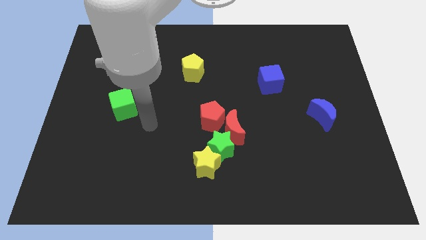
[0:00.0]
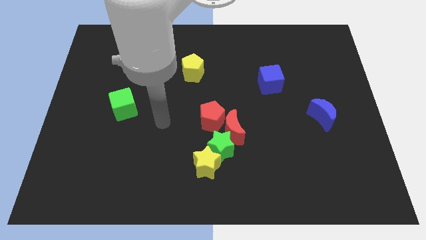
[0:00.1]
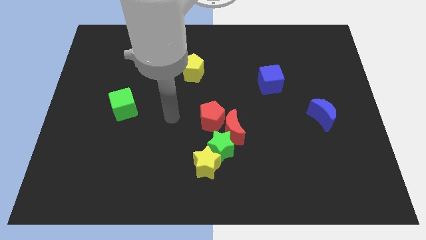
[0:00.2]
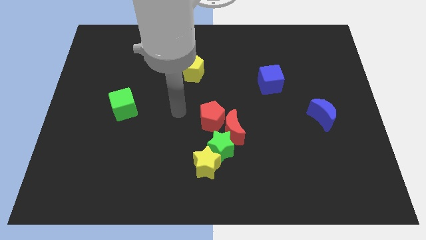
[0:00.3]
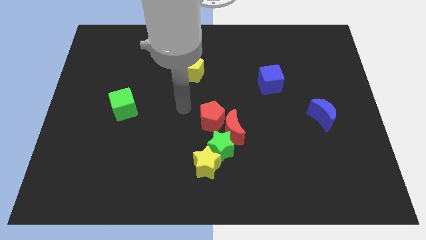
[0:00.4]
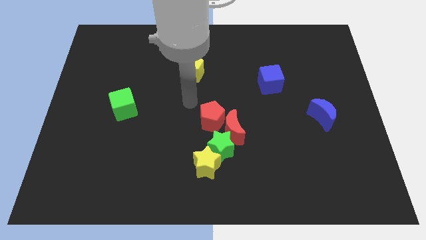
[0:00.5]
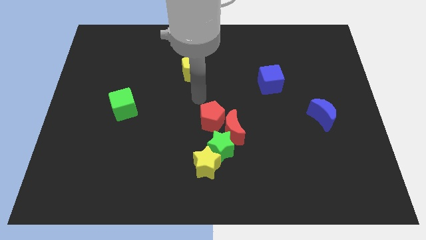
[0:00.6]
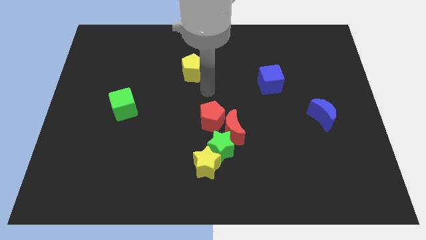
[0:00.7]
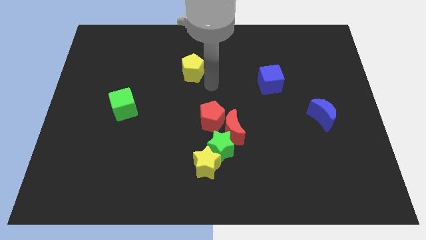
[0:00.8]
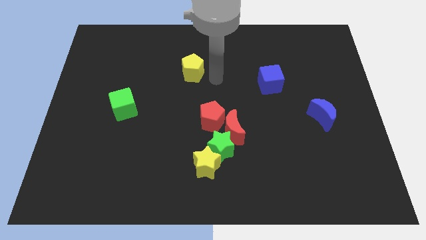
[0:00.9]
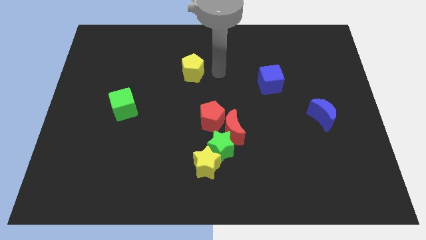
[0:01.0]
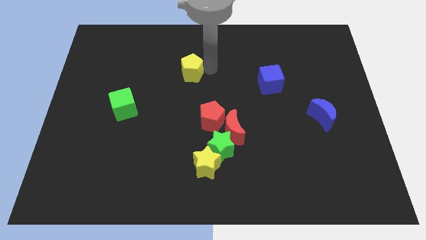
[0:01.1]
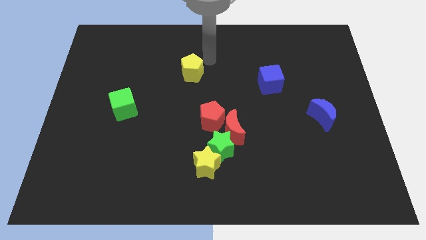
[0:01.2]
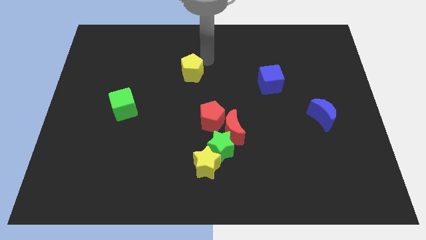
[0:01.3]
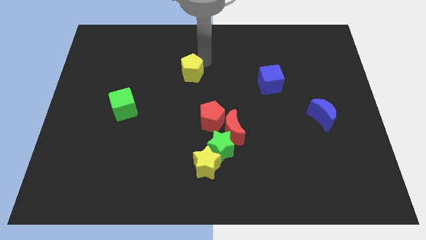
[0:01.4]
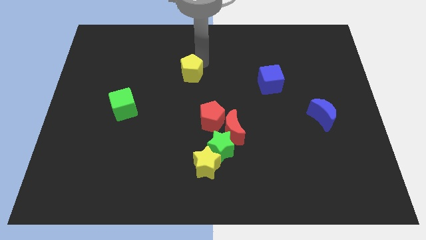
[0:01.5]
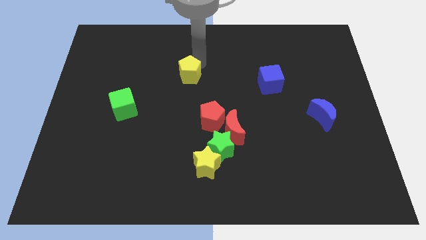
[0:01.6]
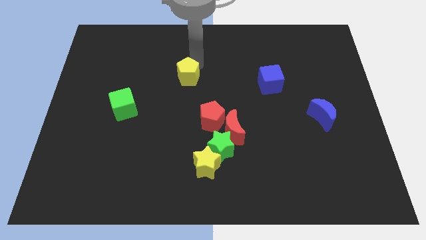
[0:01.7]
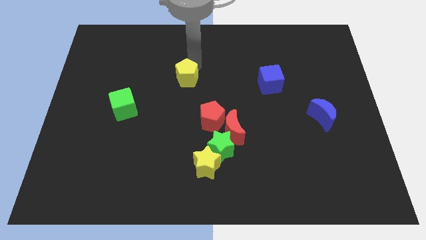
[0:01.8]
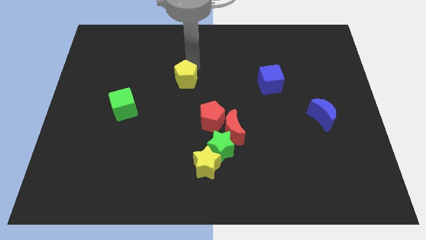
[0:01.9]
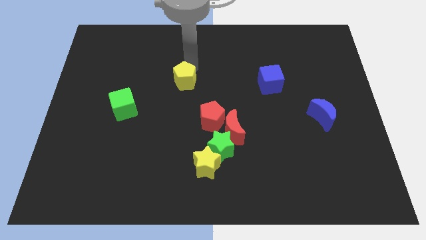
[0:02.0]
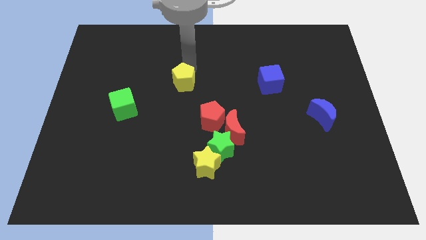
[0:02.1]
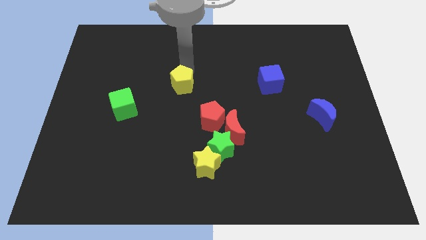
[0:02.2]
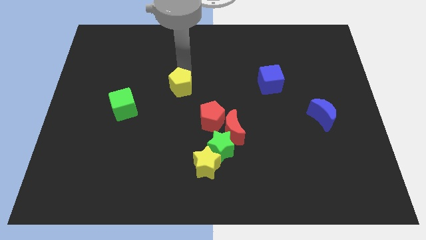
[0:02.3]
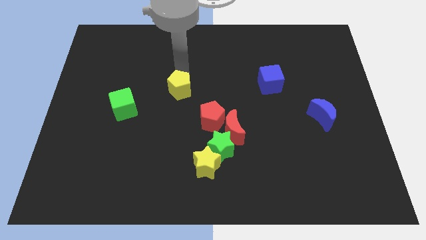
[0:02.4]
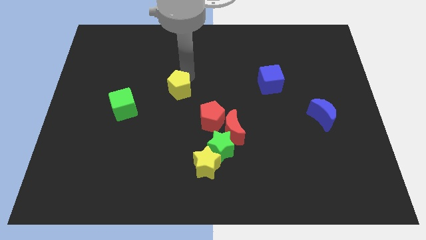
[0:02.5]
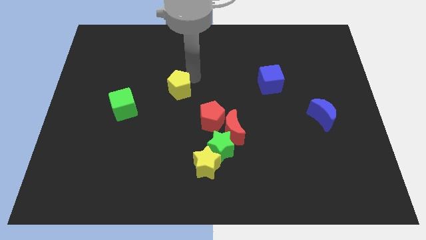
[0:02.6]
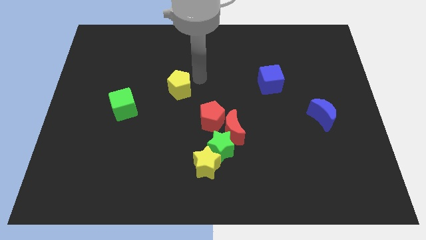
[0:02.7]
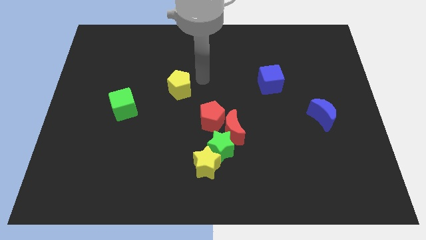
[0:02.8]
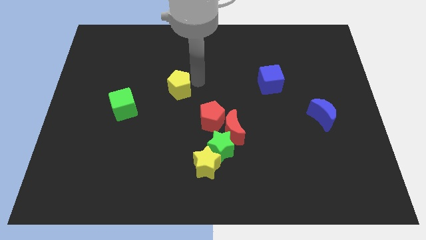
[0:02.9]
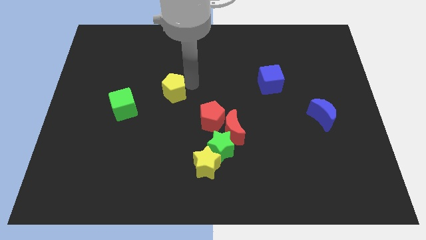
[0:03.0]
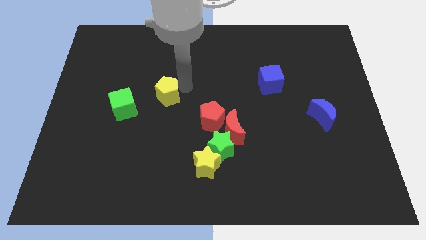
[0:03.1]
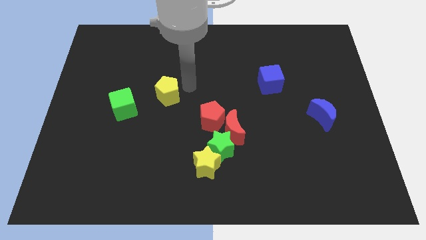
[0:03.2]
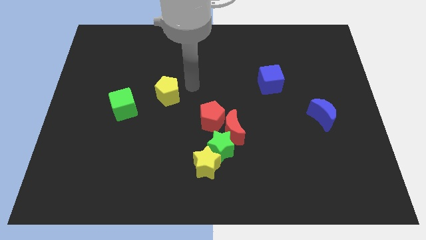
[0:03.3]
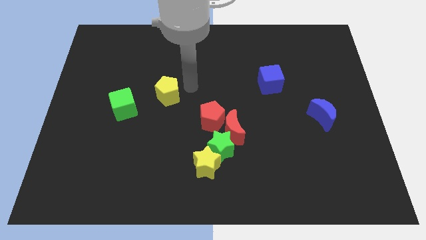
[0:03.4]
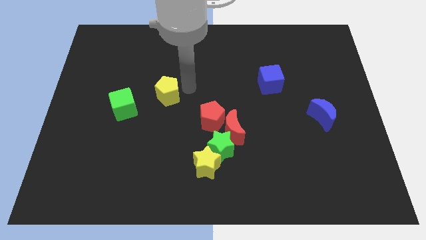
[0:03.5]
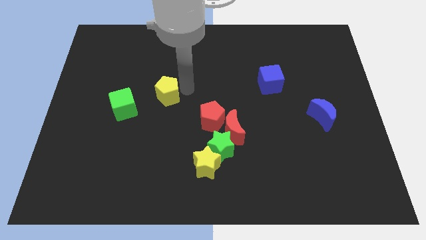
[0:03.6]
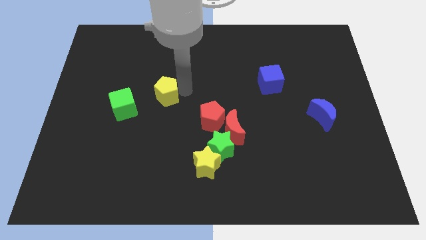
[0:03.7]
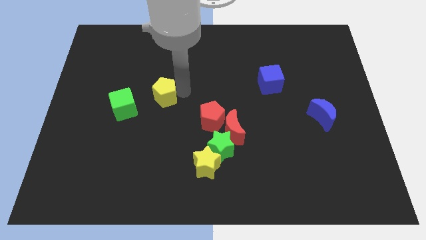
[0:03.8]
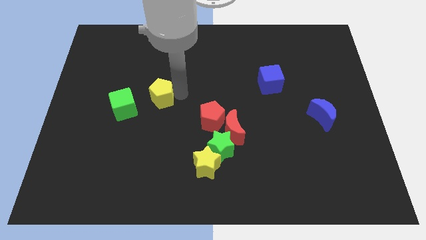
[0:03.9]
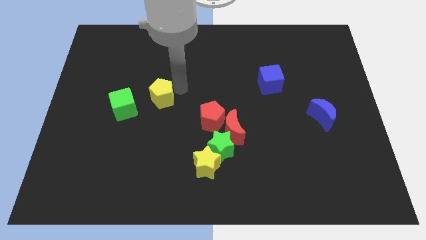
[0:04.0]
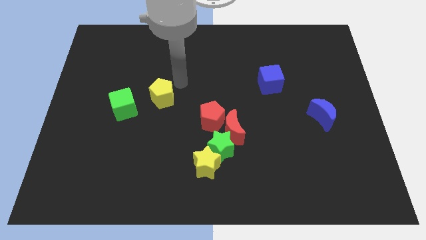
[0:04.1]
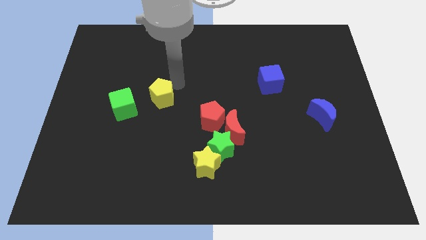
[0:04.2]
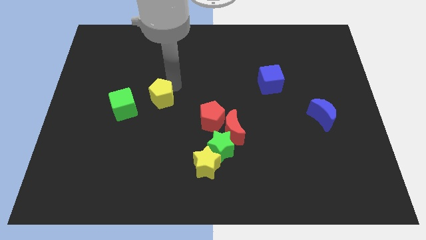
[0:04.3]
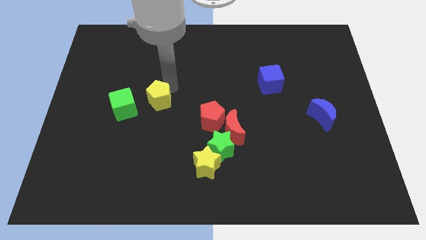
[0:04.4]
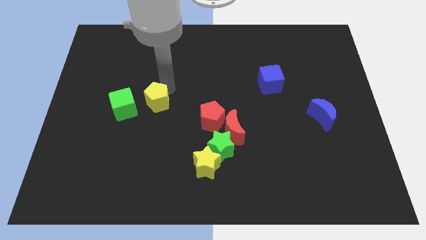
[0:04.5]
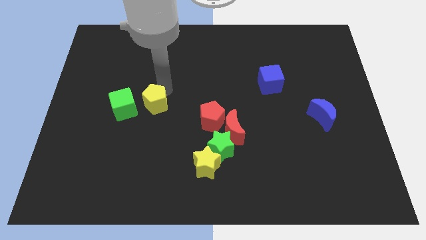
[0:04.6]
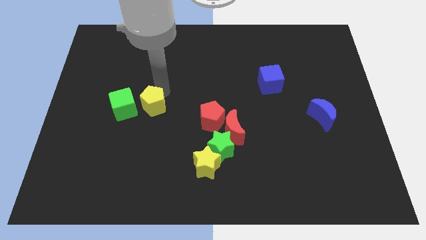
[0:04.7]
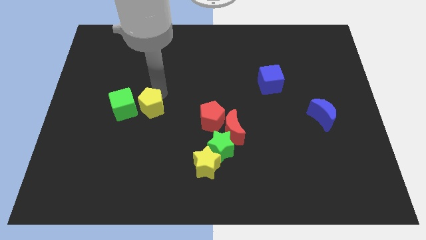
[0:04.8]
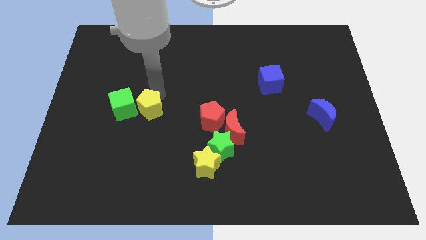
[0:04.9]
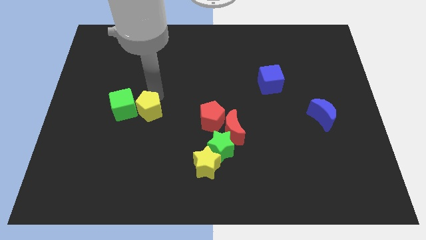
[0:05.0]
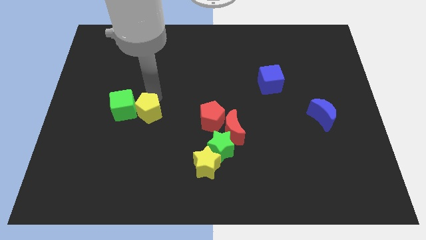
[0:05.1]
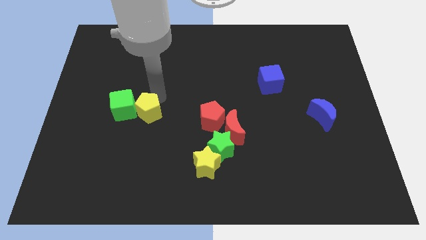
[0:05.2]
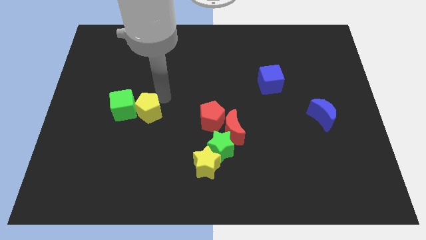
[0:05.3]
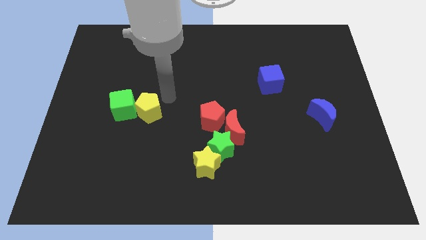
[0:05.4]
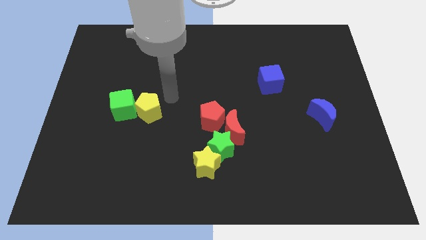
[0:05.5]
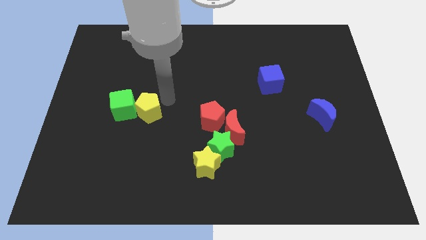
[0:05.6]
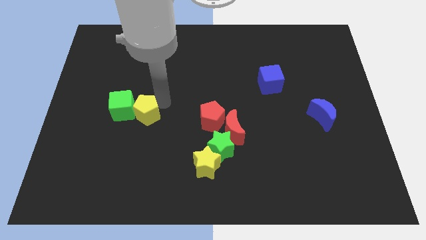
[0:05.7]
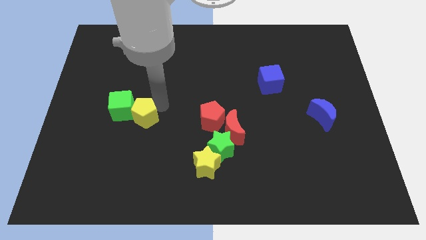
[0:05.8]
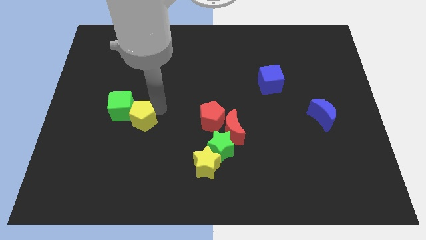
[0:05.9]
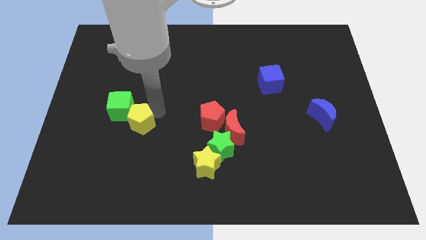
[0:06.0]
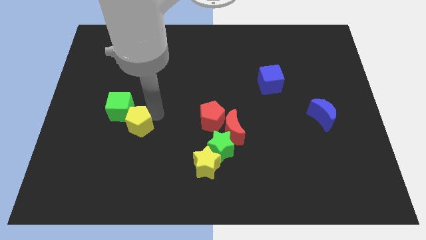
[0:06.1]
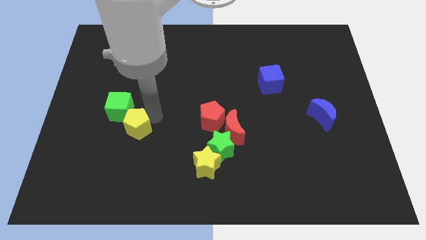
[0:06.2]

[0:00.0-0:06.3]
move the yellow pentagon down and then to the left

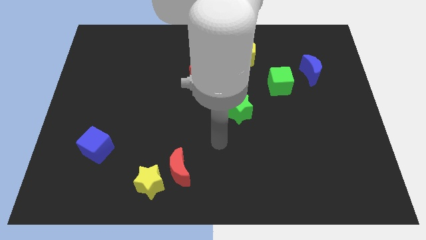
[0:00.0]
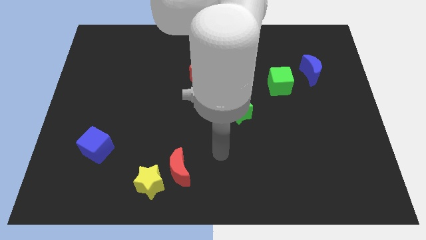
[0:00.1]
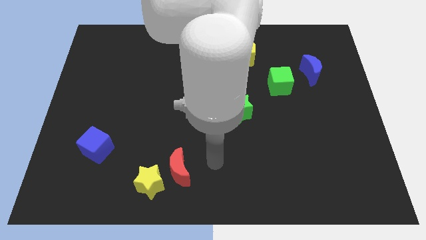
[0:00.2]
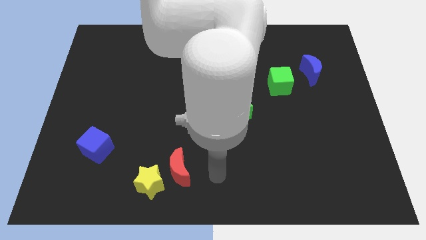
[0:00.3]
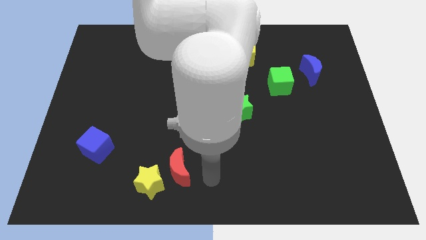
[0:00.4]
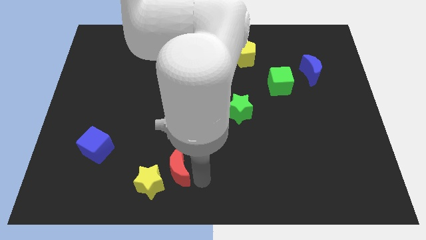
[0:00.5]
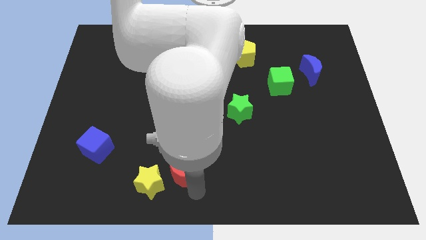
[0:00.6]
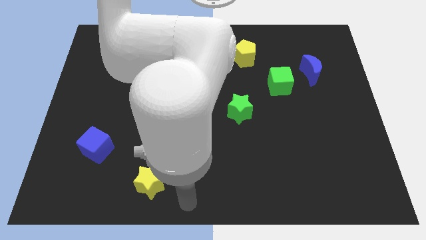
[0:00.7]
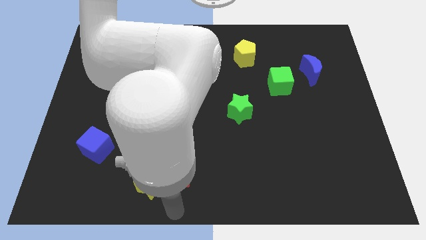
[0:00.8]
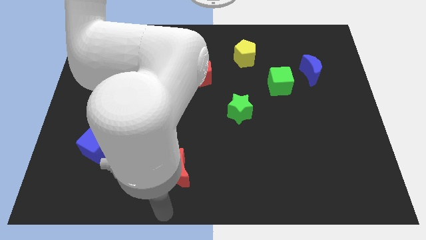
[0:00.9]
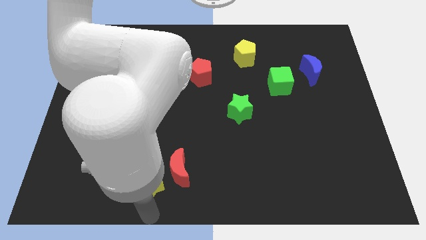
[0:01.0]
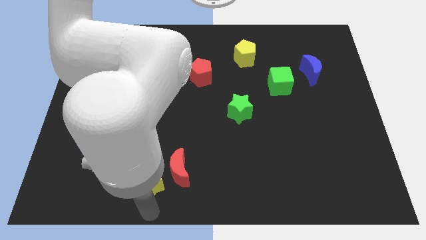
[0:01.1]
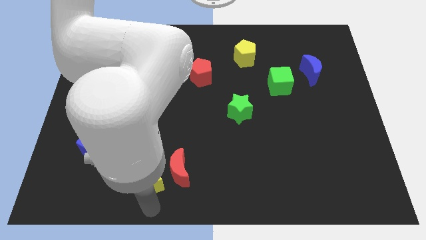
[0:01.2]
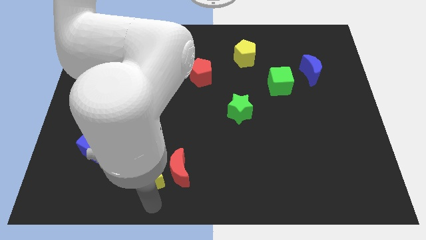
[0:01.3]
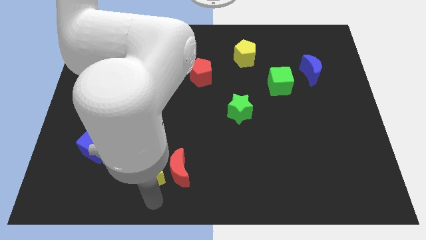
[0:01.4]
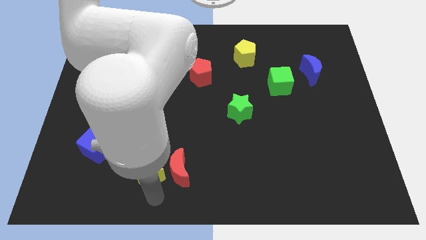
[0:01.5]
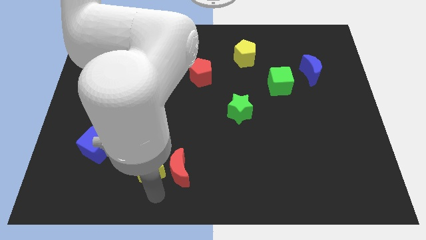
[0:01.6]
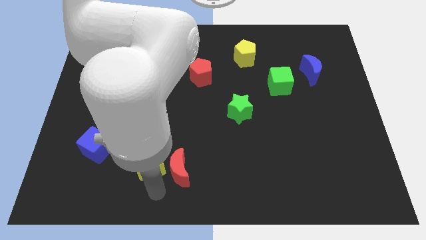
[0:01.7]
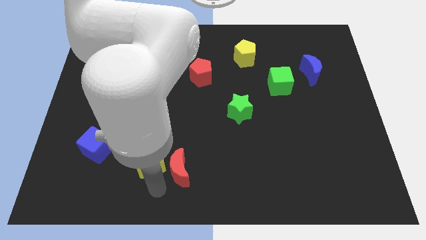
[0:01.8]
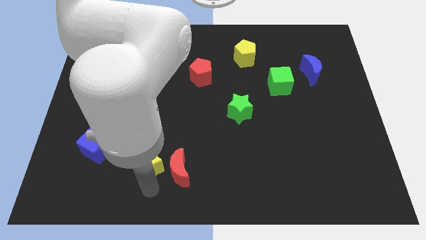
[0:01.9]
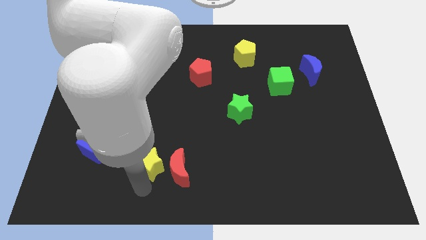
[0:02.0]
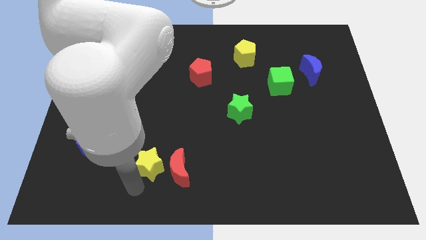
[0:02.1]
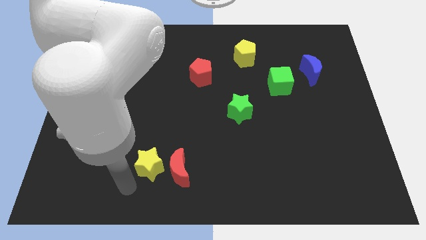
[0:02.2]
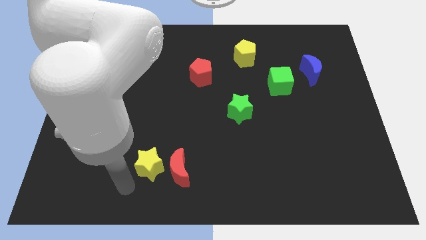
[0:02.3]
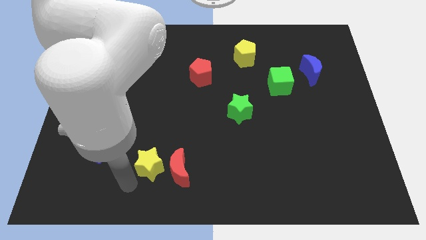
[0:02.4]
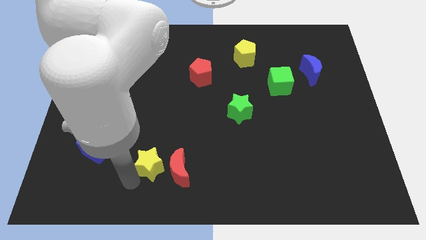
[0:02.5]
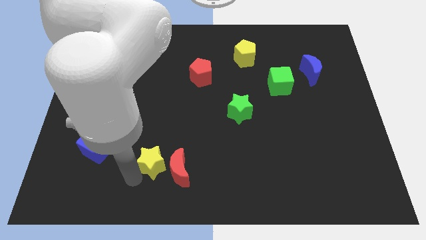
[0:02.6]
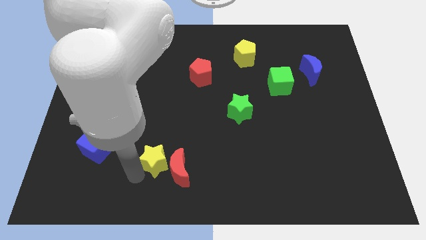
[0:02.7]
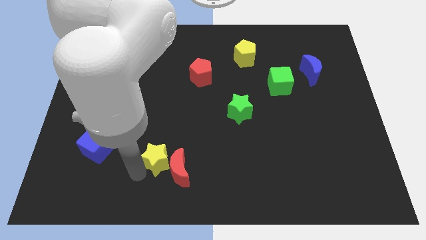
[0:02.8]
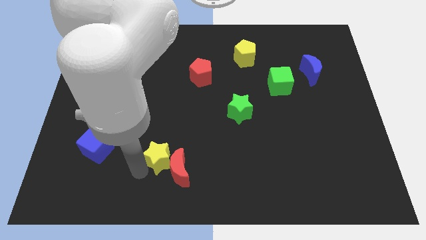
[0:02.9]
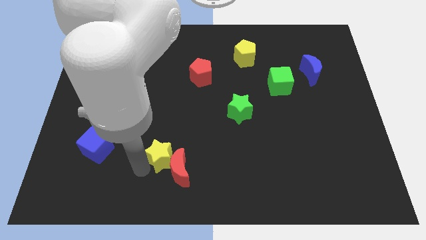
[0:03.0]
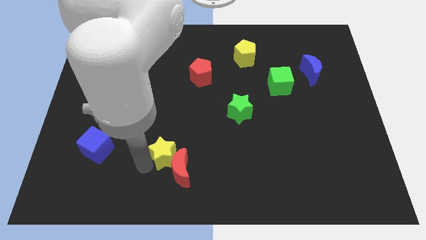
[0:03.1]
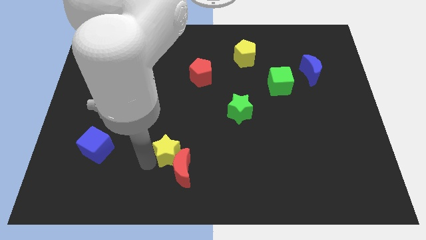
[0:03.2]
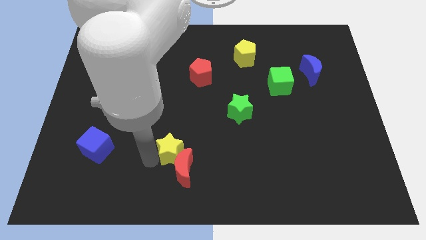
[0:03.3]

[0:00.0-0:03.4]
slide the yellow star slightly up and to the right diagonally
